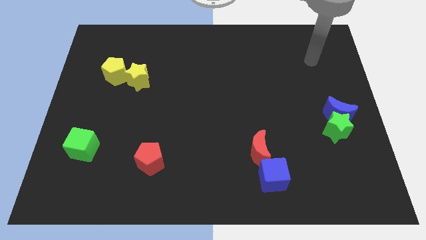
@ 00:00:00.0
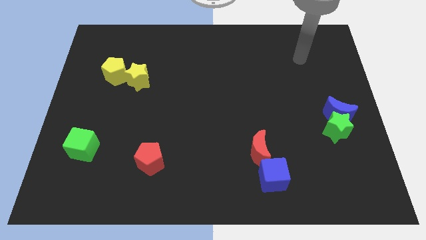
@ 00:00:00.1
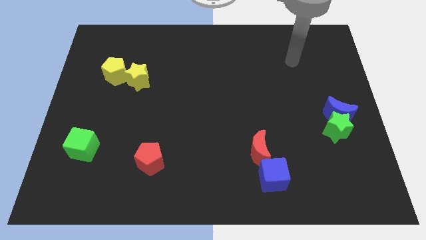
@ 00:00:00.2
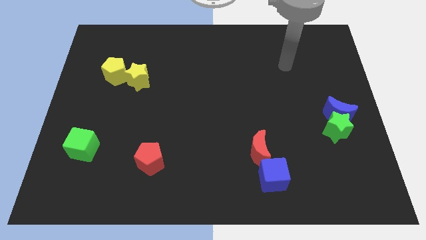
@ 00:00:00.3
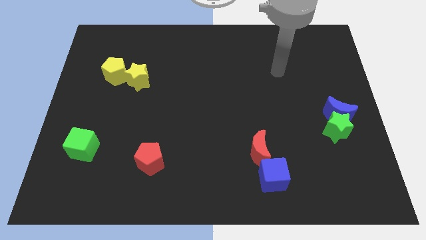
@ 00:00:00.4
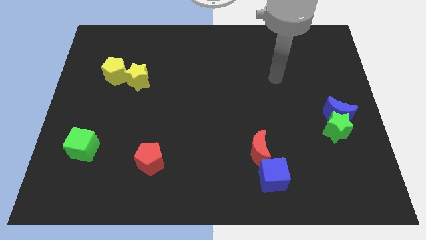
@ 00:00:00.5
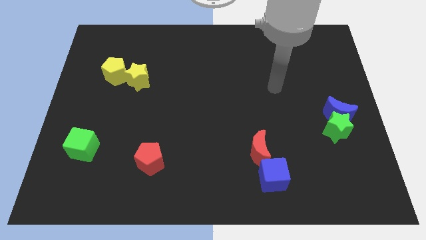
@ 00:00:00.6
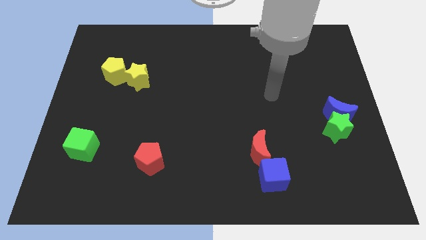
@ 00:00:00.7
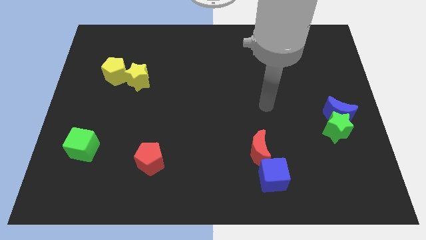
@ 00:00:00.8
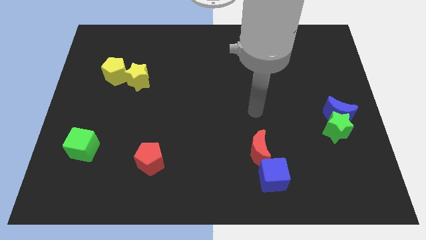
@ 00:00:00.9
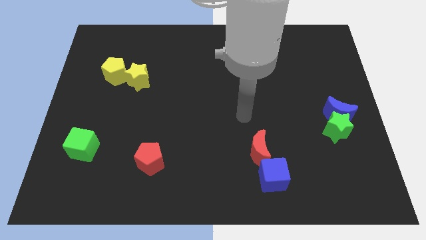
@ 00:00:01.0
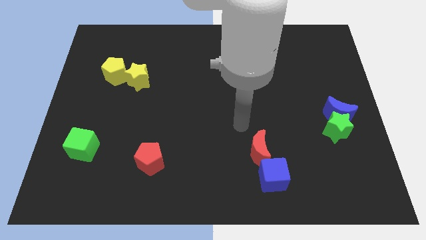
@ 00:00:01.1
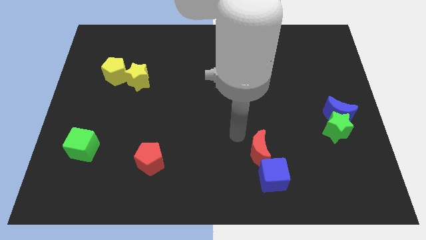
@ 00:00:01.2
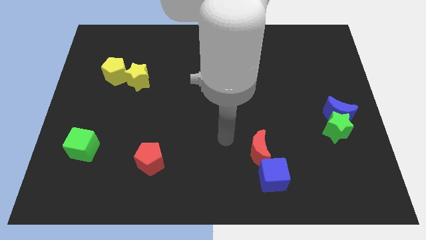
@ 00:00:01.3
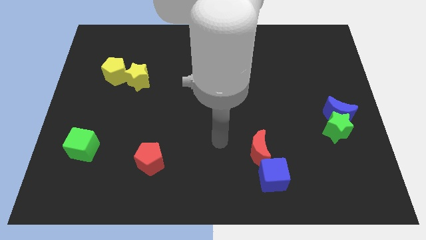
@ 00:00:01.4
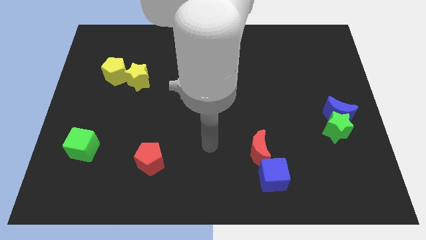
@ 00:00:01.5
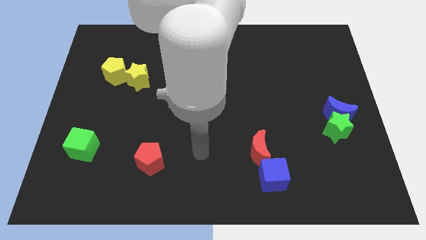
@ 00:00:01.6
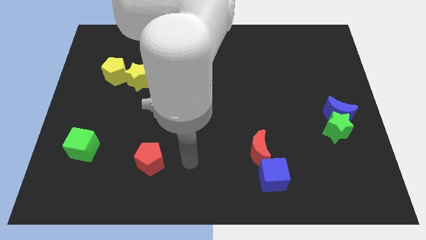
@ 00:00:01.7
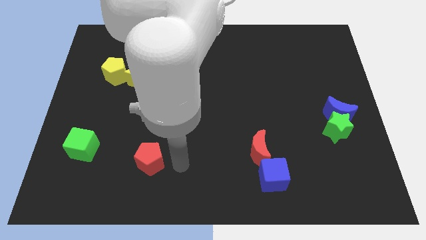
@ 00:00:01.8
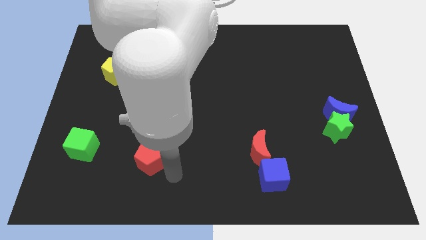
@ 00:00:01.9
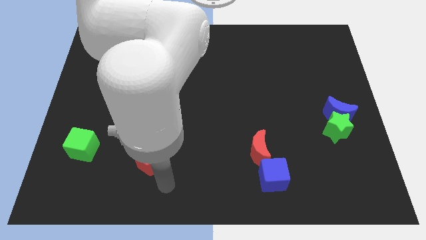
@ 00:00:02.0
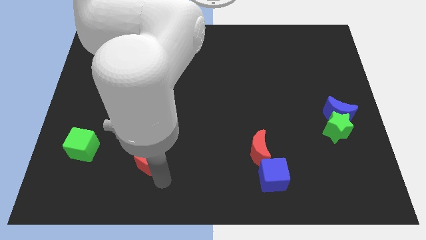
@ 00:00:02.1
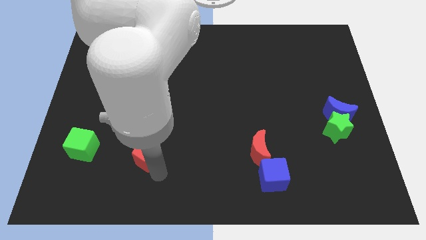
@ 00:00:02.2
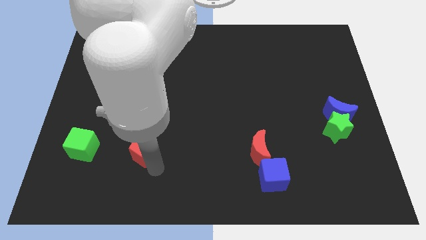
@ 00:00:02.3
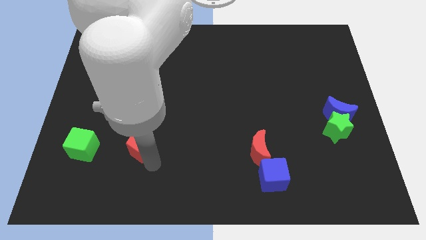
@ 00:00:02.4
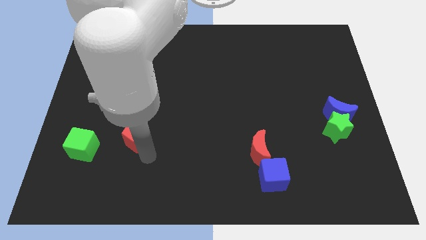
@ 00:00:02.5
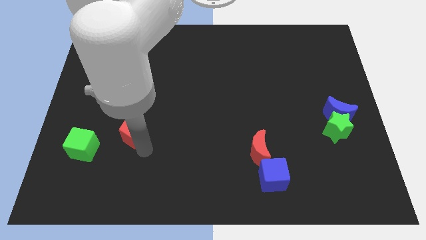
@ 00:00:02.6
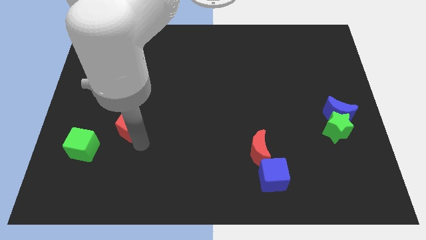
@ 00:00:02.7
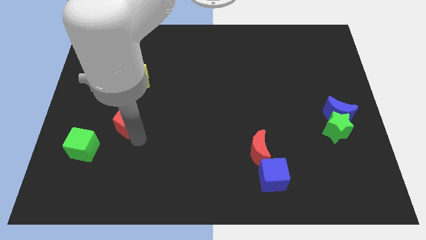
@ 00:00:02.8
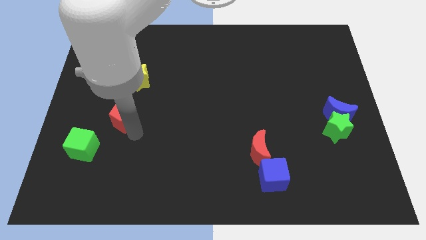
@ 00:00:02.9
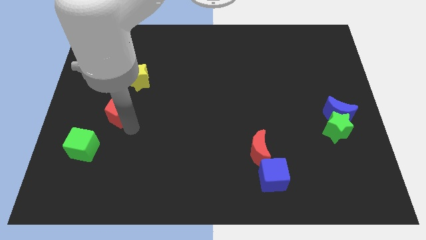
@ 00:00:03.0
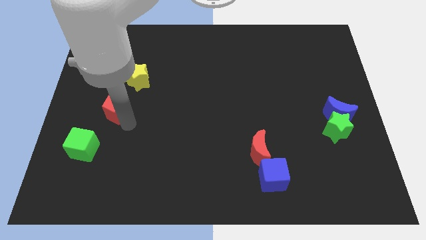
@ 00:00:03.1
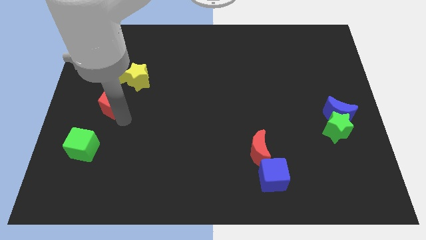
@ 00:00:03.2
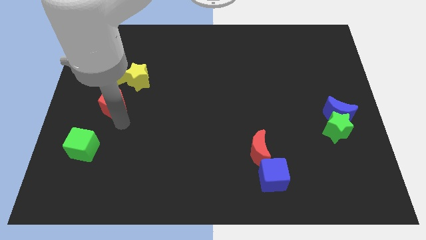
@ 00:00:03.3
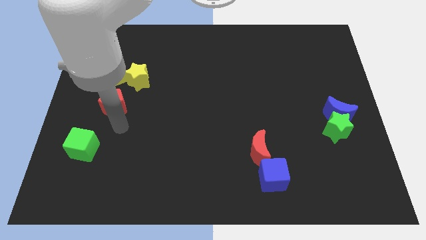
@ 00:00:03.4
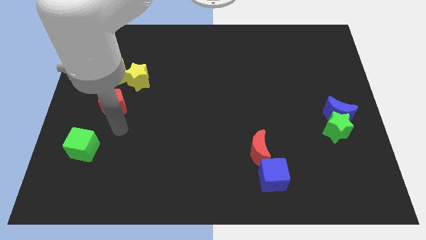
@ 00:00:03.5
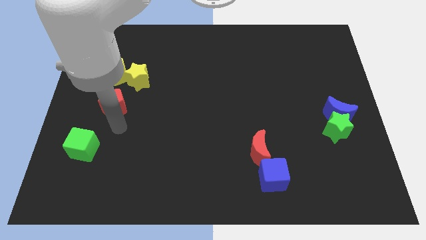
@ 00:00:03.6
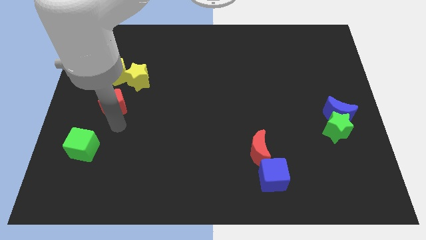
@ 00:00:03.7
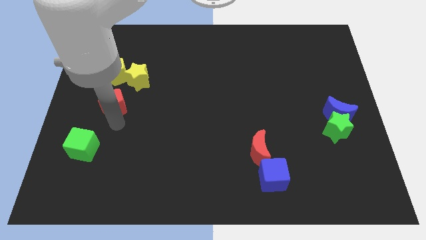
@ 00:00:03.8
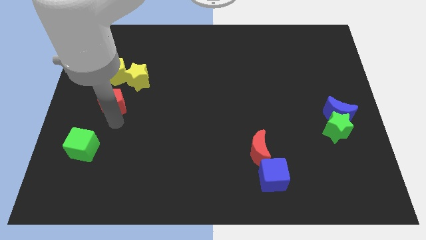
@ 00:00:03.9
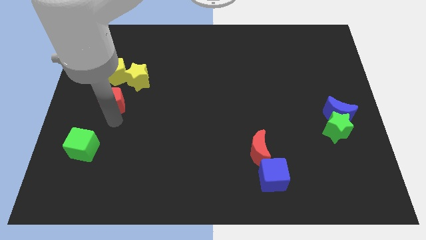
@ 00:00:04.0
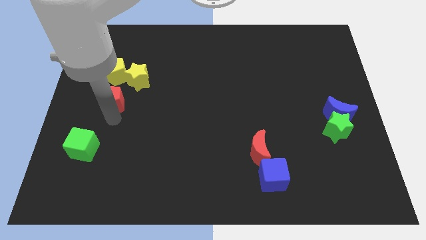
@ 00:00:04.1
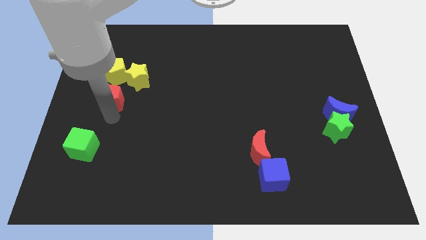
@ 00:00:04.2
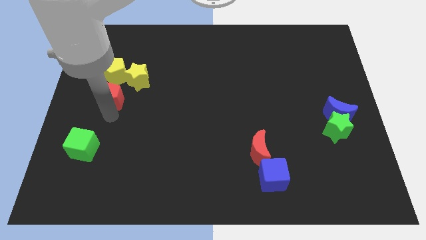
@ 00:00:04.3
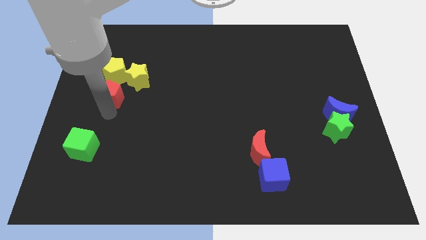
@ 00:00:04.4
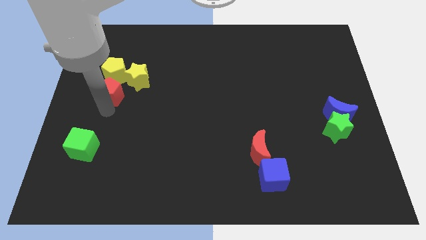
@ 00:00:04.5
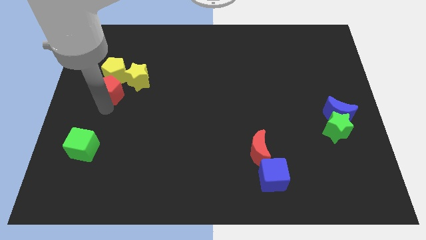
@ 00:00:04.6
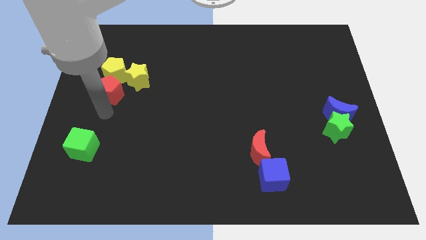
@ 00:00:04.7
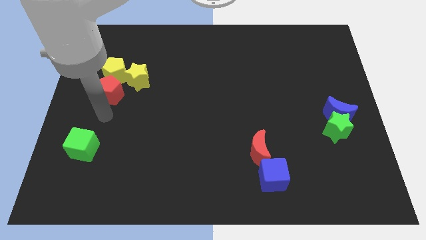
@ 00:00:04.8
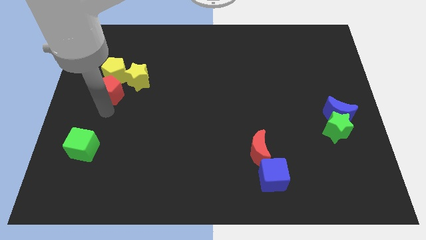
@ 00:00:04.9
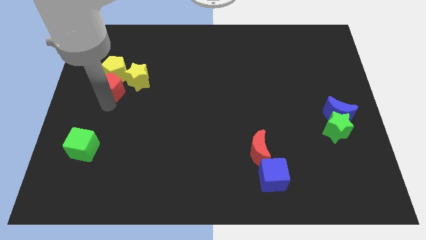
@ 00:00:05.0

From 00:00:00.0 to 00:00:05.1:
put the red pentagon next to the yellow pentagon

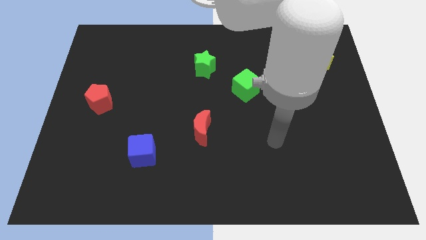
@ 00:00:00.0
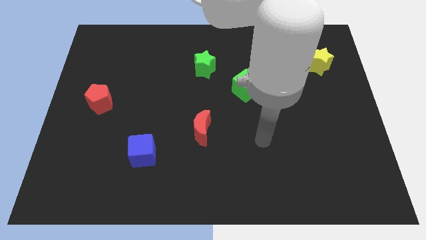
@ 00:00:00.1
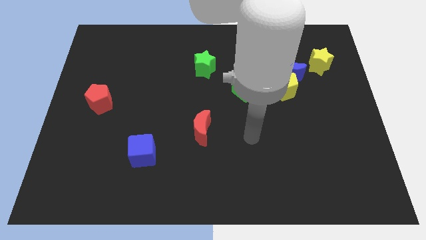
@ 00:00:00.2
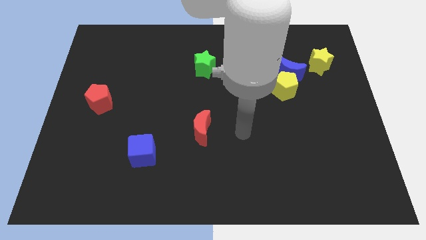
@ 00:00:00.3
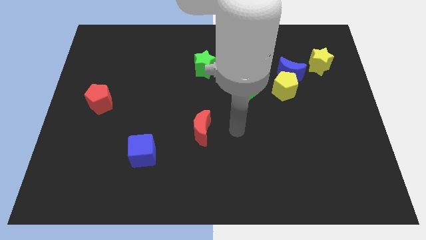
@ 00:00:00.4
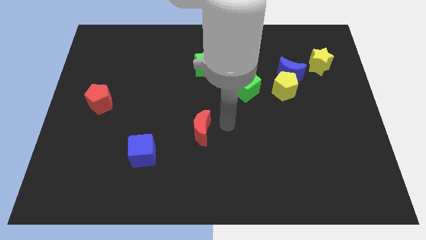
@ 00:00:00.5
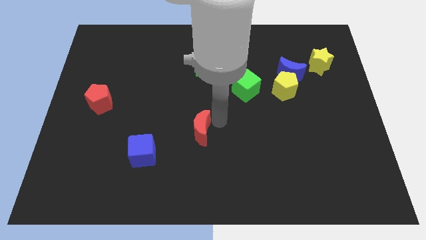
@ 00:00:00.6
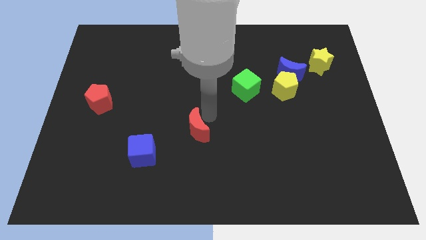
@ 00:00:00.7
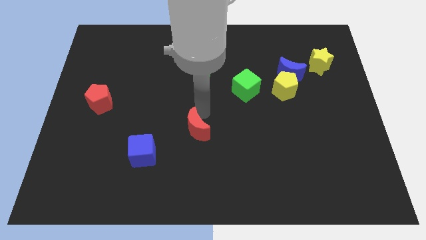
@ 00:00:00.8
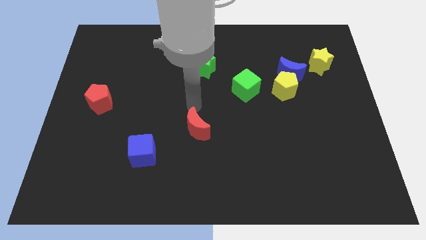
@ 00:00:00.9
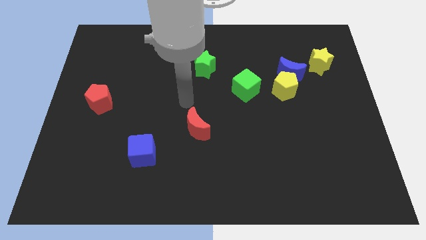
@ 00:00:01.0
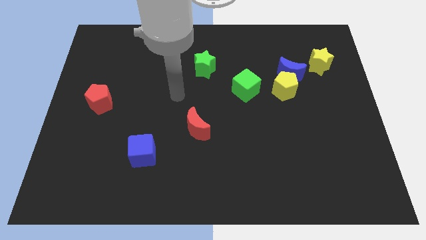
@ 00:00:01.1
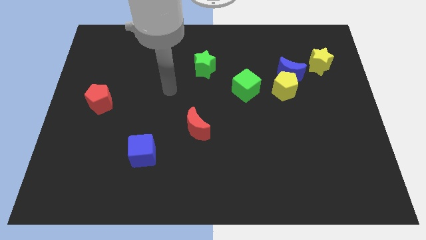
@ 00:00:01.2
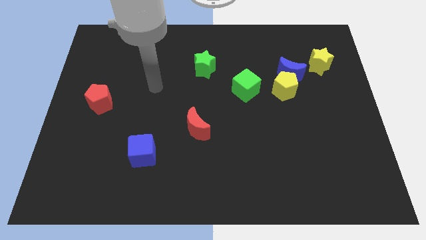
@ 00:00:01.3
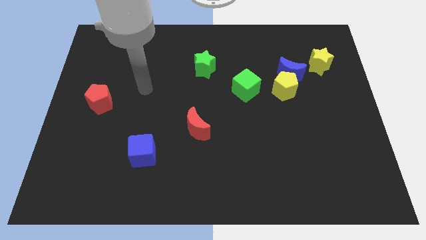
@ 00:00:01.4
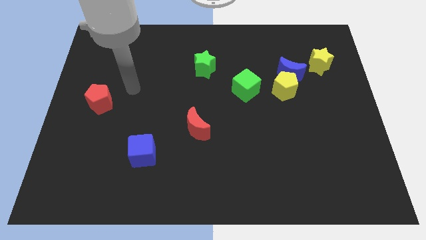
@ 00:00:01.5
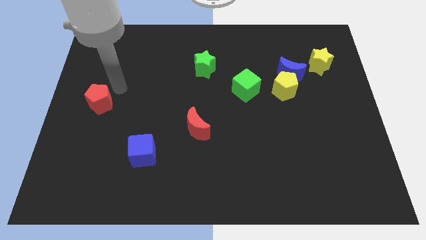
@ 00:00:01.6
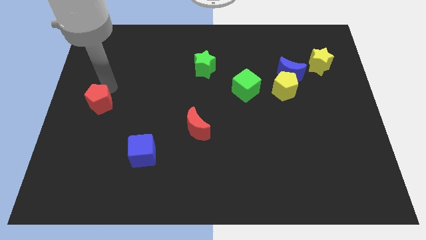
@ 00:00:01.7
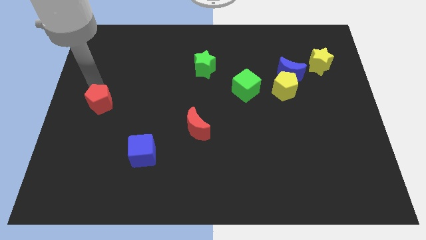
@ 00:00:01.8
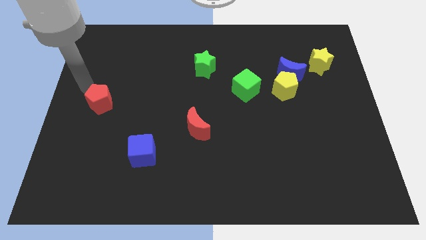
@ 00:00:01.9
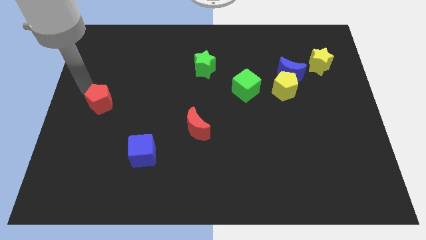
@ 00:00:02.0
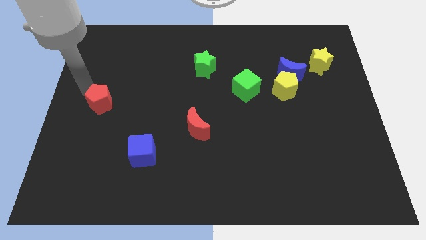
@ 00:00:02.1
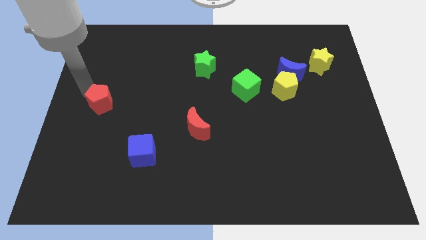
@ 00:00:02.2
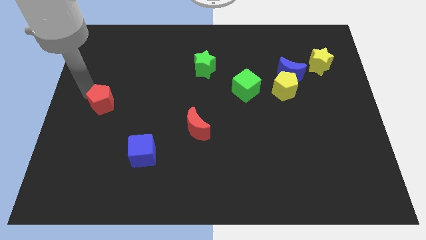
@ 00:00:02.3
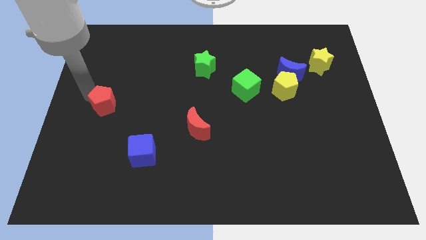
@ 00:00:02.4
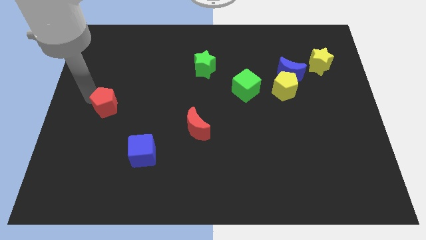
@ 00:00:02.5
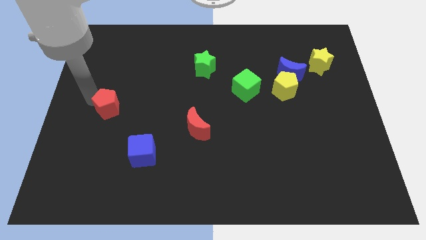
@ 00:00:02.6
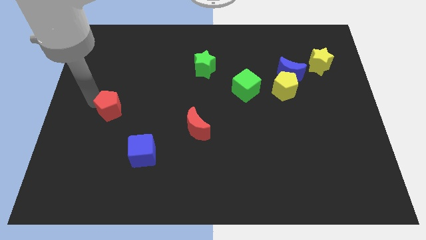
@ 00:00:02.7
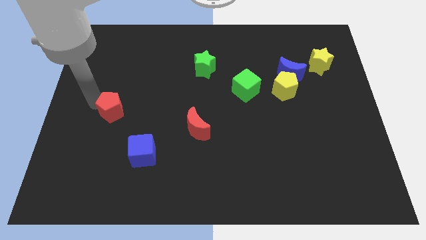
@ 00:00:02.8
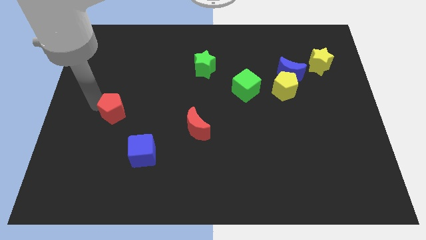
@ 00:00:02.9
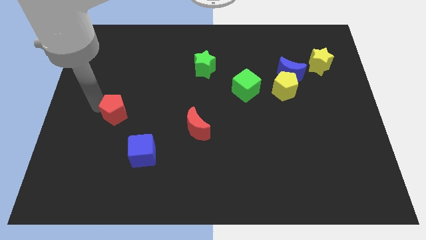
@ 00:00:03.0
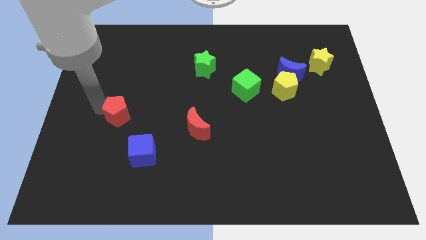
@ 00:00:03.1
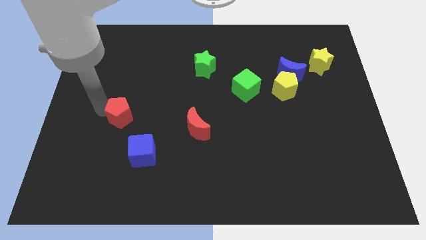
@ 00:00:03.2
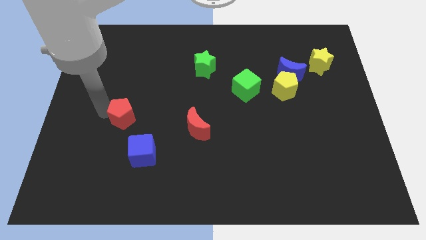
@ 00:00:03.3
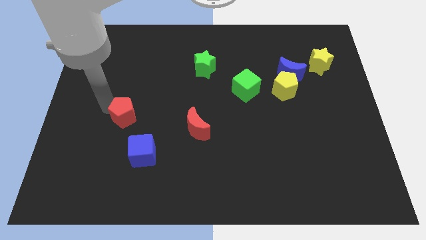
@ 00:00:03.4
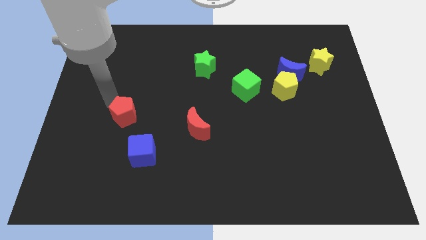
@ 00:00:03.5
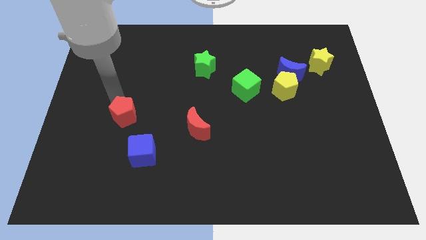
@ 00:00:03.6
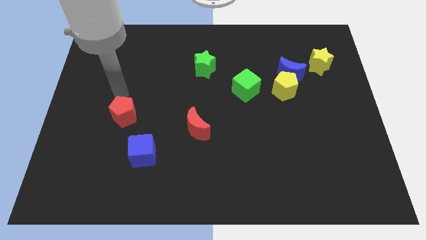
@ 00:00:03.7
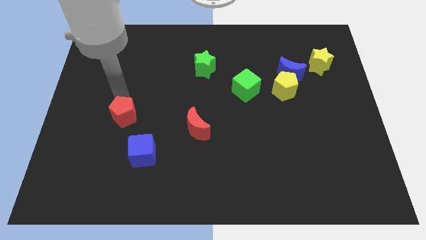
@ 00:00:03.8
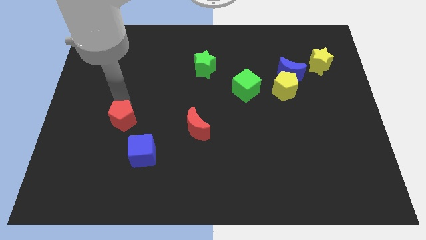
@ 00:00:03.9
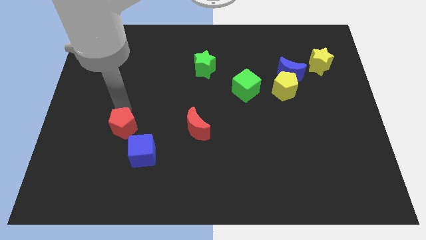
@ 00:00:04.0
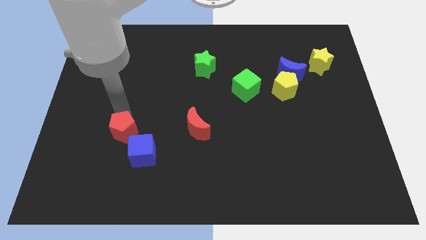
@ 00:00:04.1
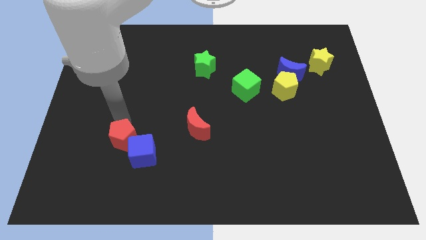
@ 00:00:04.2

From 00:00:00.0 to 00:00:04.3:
put the red pentagon close to the blue cube
